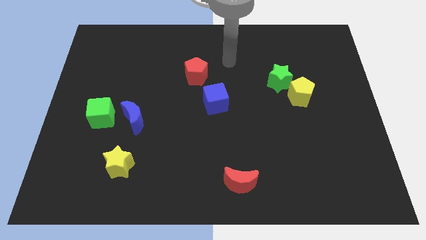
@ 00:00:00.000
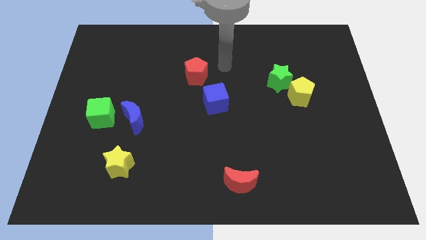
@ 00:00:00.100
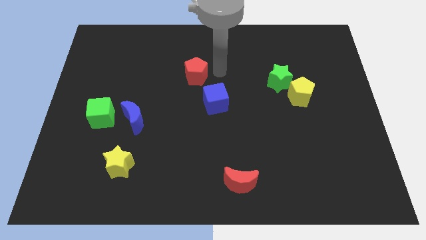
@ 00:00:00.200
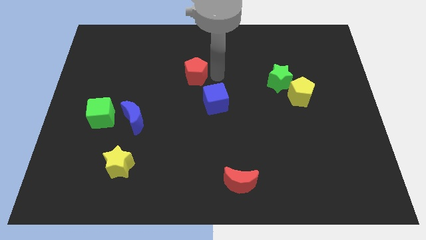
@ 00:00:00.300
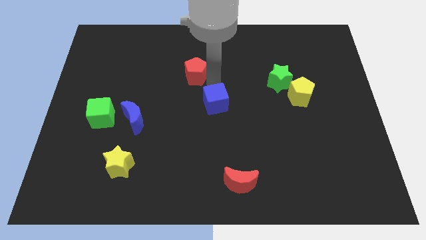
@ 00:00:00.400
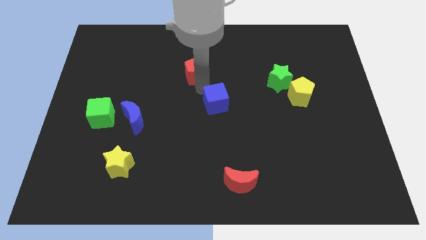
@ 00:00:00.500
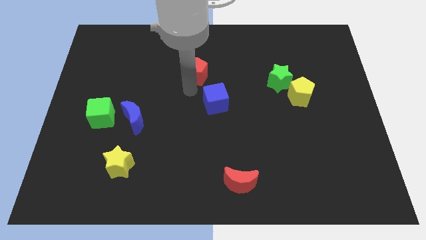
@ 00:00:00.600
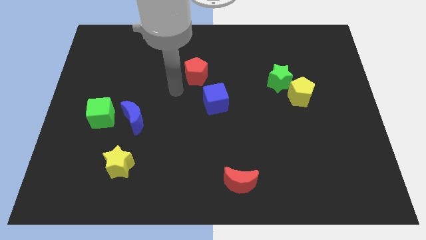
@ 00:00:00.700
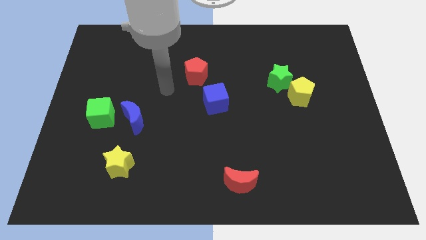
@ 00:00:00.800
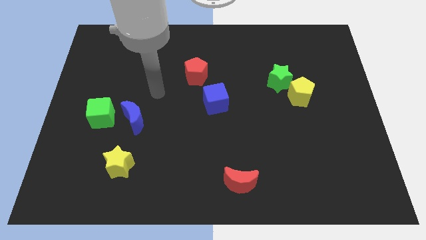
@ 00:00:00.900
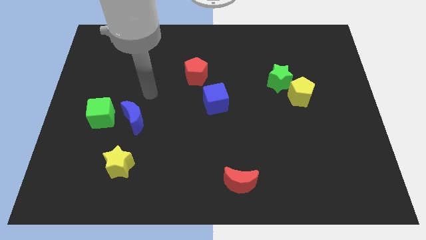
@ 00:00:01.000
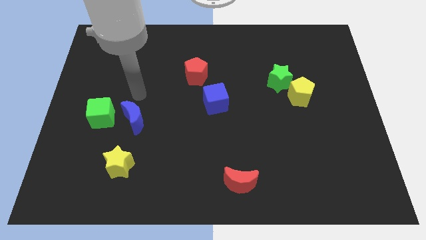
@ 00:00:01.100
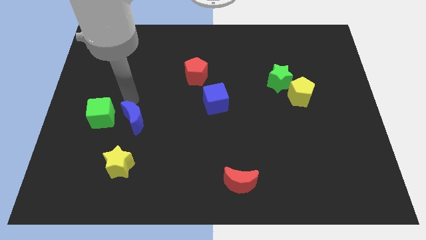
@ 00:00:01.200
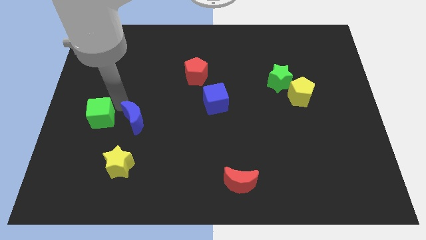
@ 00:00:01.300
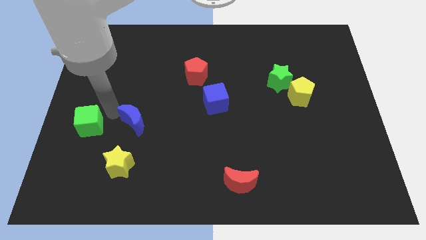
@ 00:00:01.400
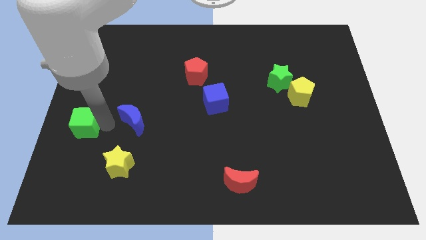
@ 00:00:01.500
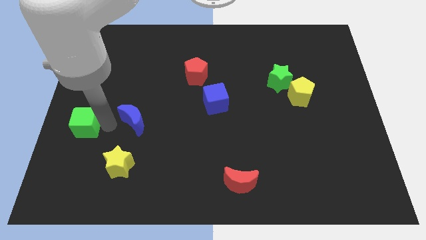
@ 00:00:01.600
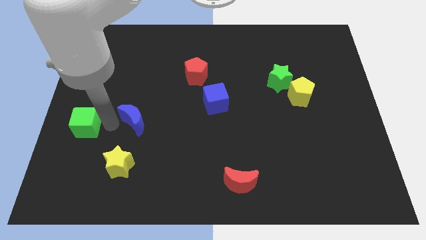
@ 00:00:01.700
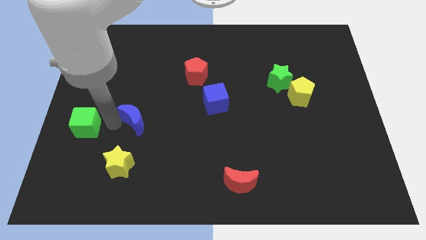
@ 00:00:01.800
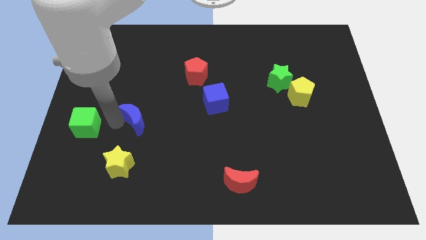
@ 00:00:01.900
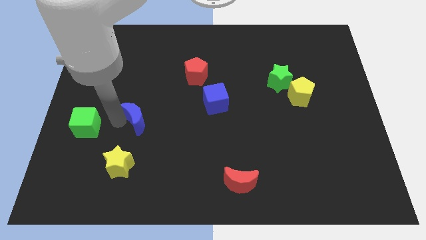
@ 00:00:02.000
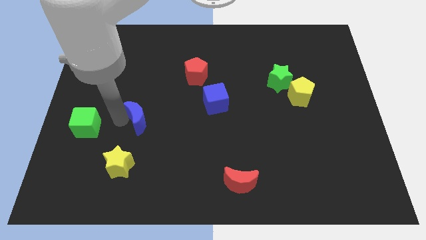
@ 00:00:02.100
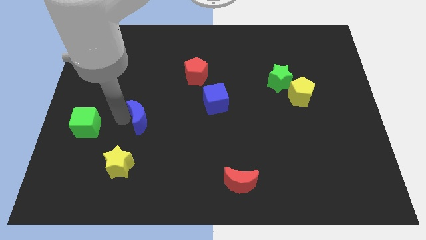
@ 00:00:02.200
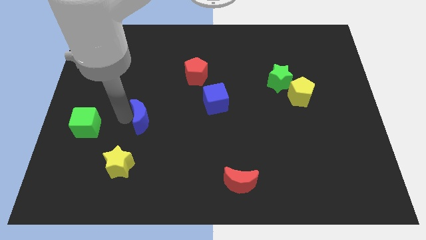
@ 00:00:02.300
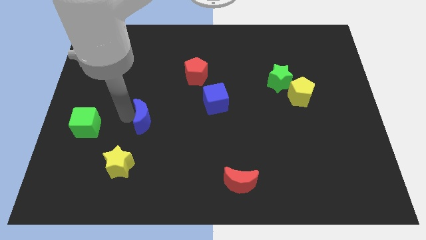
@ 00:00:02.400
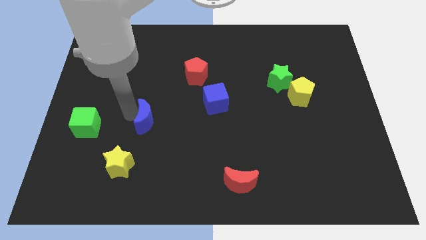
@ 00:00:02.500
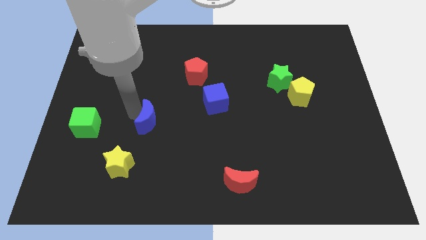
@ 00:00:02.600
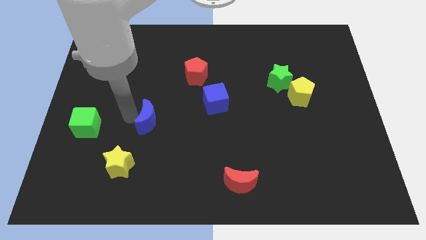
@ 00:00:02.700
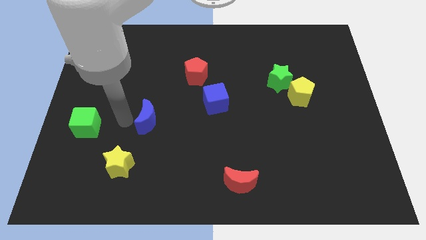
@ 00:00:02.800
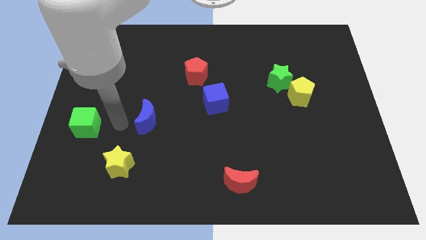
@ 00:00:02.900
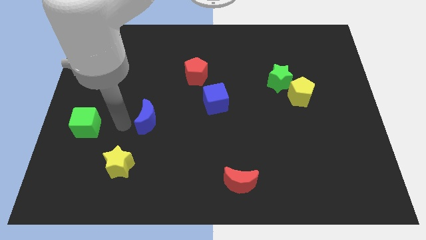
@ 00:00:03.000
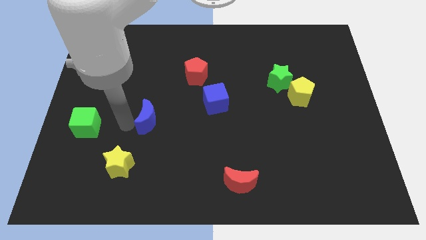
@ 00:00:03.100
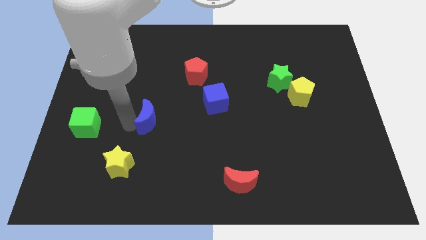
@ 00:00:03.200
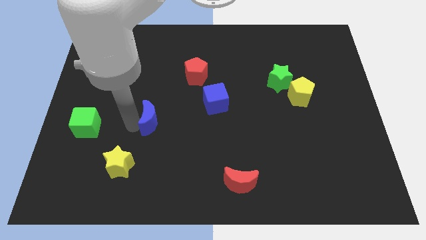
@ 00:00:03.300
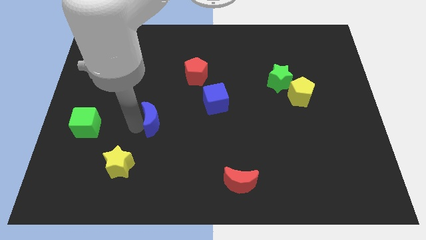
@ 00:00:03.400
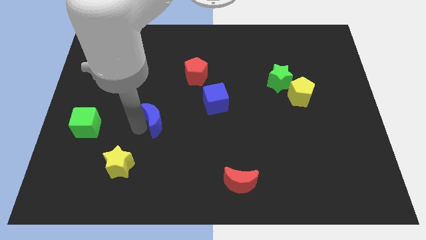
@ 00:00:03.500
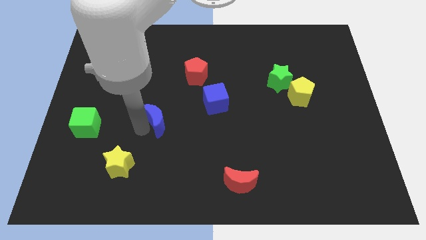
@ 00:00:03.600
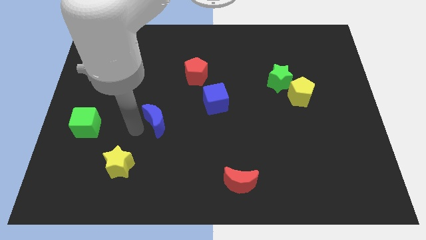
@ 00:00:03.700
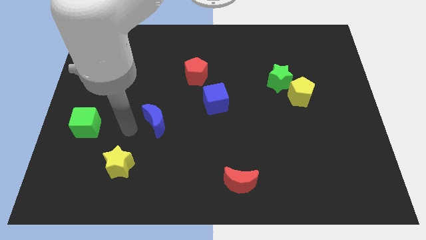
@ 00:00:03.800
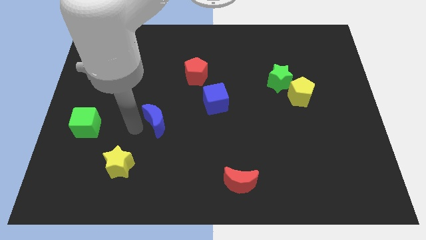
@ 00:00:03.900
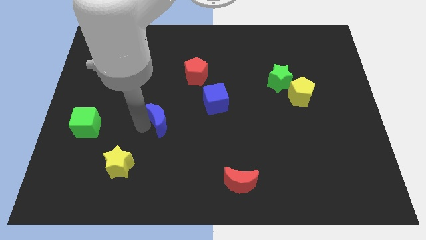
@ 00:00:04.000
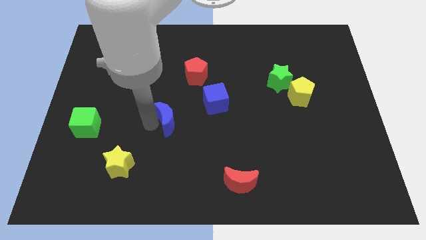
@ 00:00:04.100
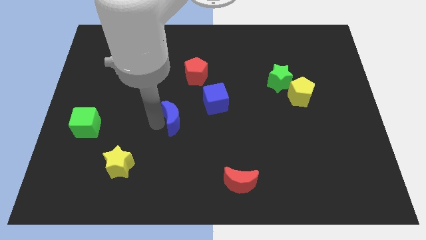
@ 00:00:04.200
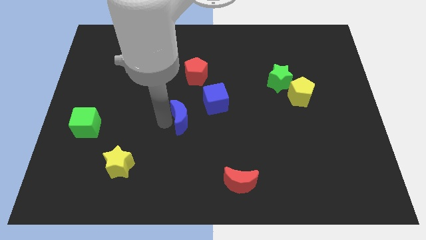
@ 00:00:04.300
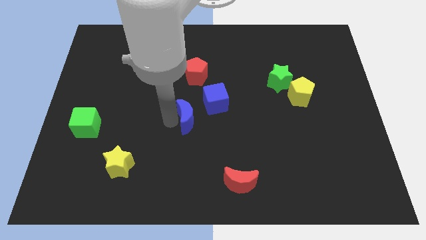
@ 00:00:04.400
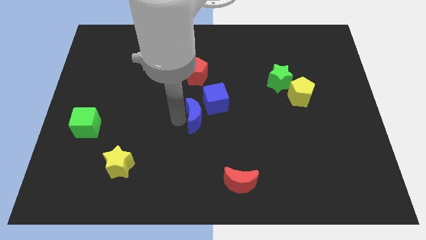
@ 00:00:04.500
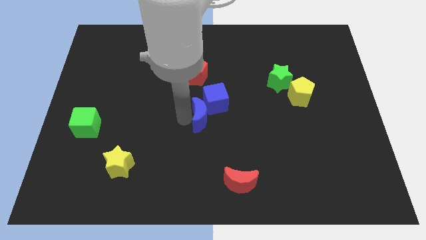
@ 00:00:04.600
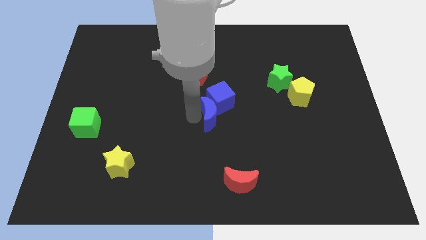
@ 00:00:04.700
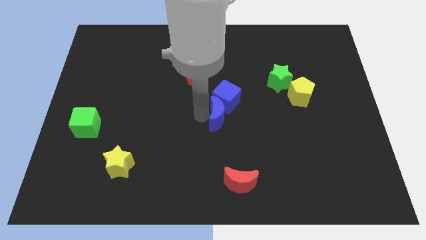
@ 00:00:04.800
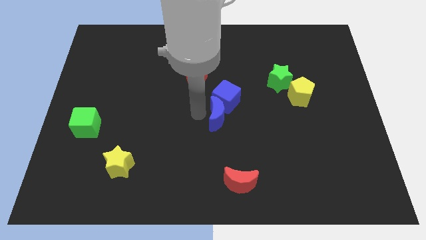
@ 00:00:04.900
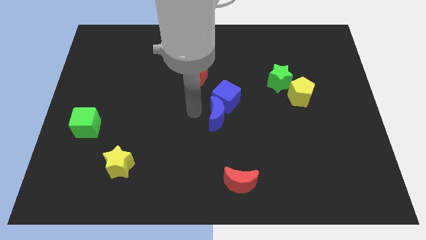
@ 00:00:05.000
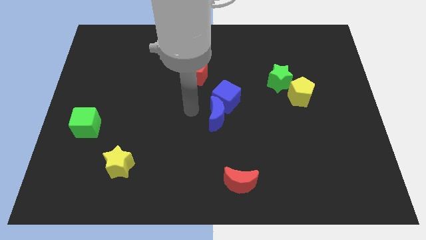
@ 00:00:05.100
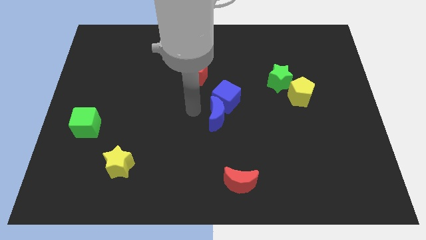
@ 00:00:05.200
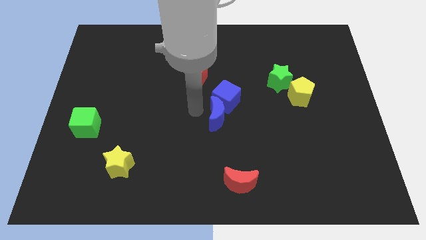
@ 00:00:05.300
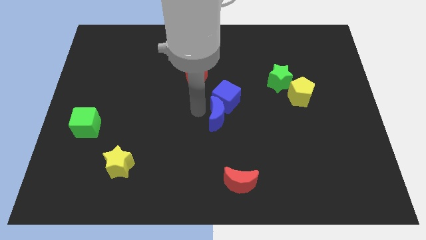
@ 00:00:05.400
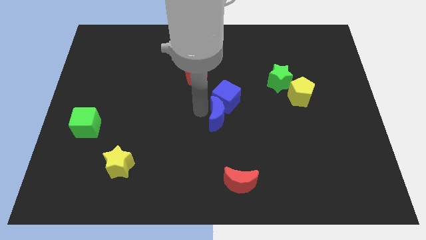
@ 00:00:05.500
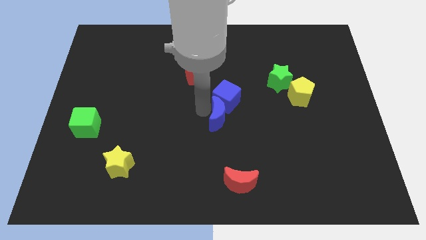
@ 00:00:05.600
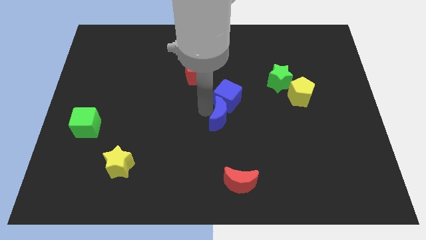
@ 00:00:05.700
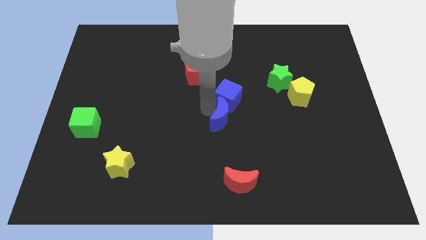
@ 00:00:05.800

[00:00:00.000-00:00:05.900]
push the blue moon right

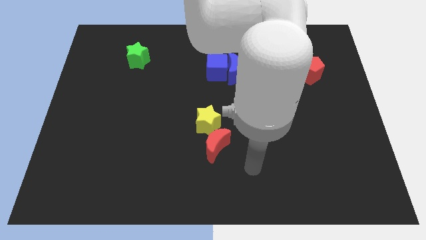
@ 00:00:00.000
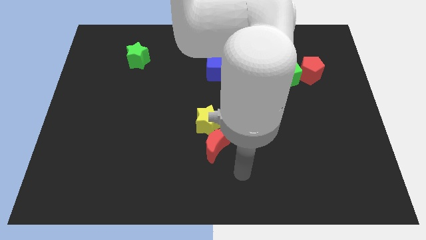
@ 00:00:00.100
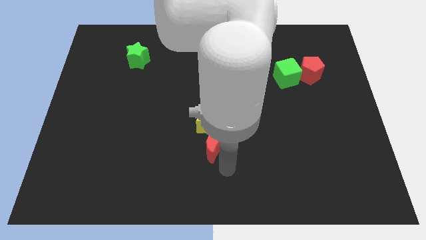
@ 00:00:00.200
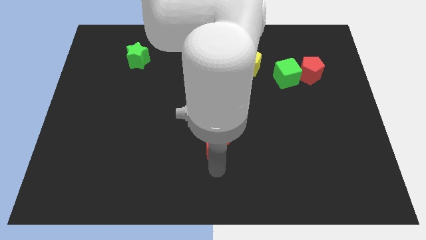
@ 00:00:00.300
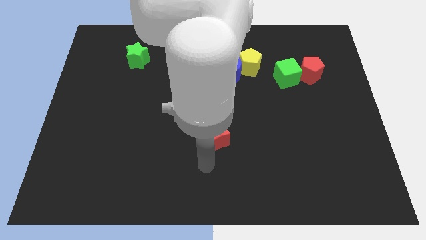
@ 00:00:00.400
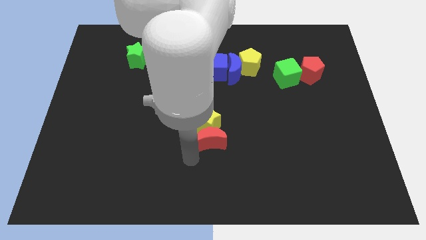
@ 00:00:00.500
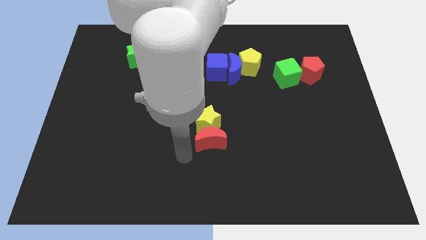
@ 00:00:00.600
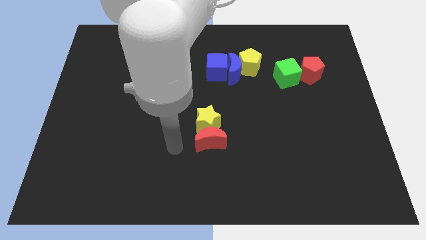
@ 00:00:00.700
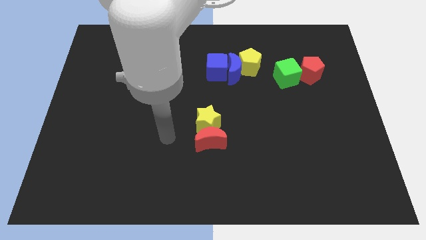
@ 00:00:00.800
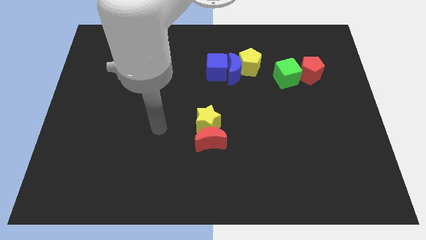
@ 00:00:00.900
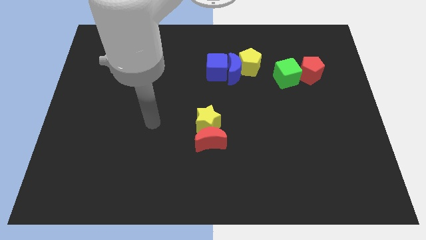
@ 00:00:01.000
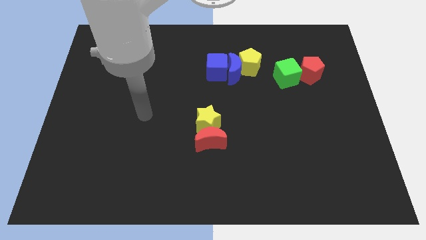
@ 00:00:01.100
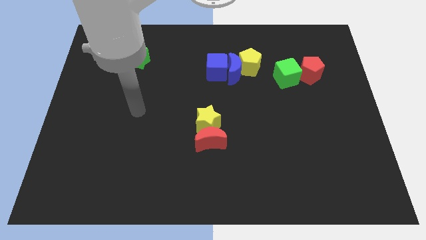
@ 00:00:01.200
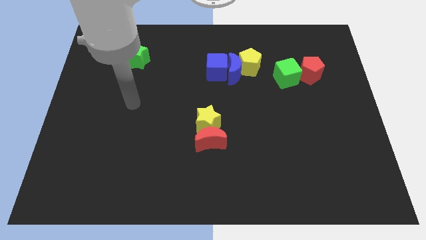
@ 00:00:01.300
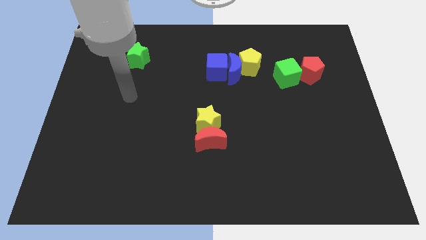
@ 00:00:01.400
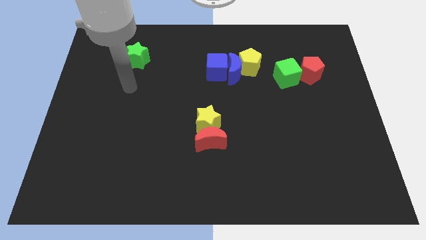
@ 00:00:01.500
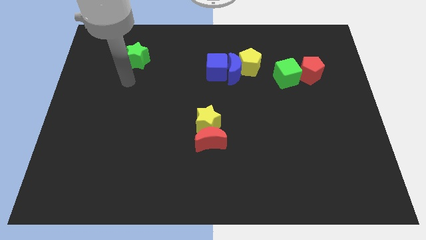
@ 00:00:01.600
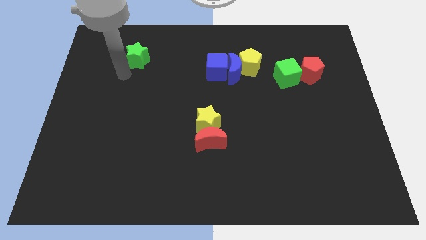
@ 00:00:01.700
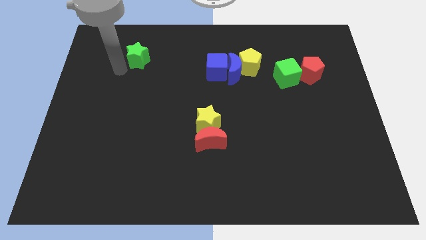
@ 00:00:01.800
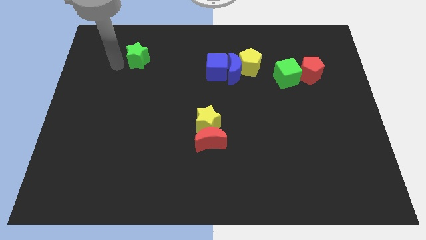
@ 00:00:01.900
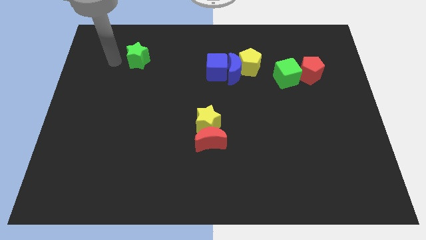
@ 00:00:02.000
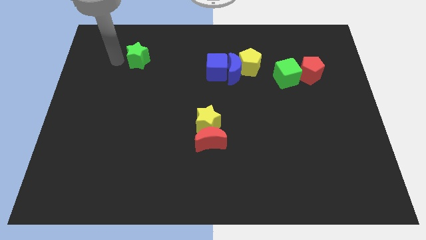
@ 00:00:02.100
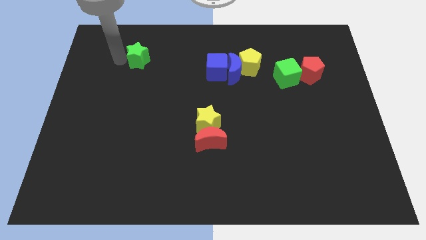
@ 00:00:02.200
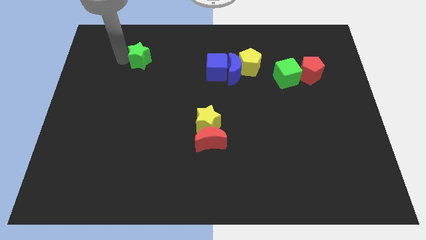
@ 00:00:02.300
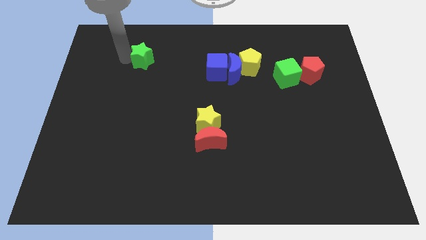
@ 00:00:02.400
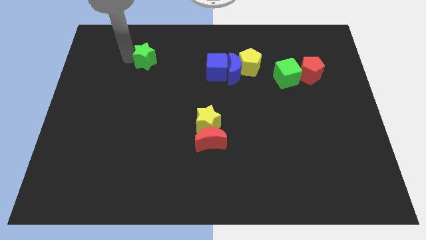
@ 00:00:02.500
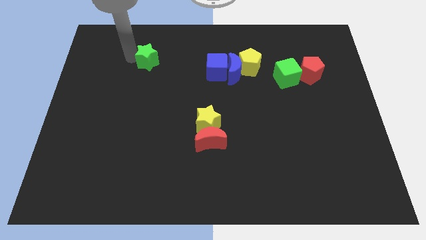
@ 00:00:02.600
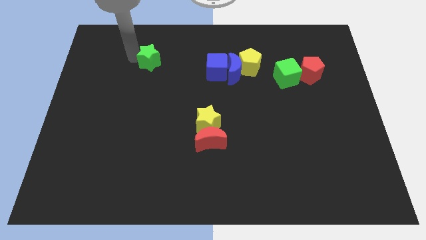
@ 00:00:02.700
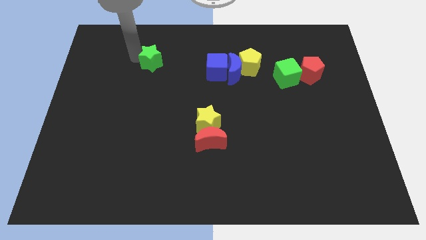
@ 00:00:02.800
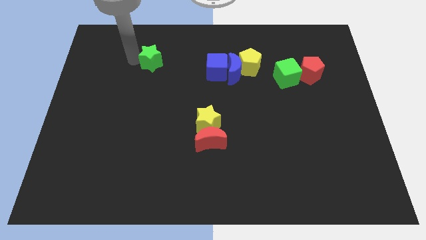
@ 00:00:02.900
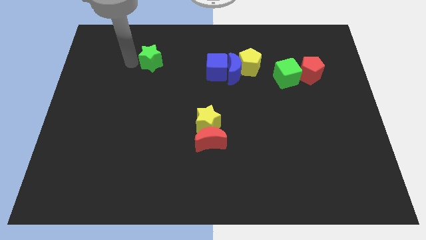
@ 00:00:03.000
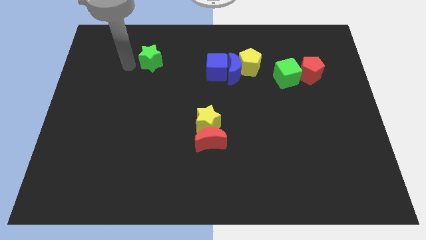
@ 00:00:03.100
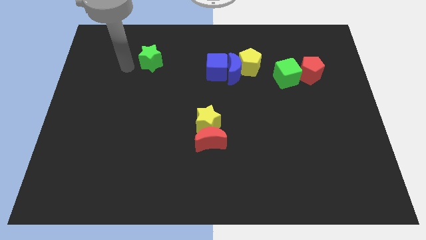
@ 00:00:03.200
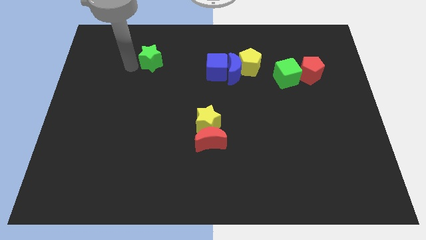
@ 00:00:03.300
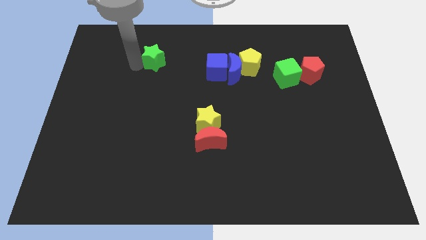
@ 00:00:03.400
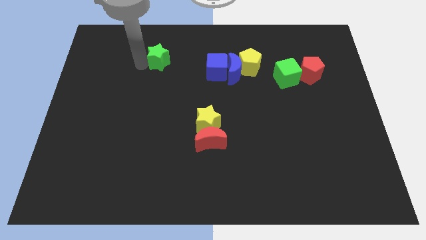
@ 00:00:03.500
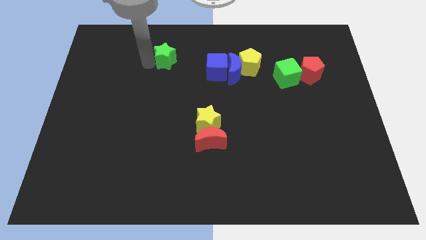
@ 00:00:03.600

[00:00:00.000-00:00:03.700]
slightly push the green star right
